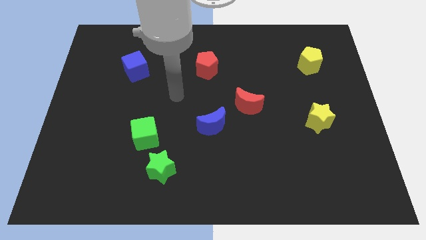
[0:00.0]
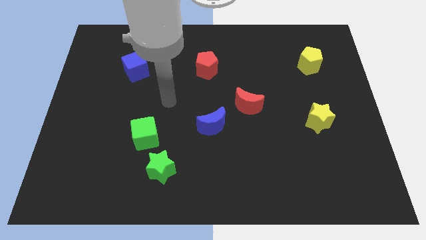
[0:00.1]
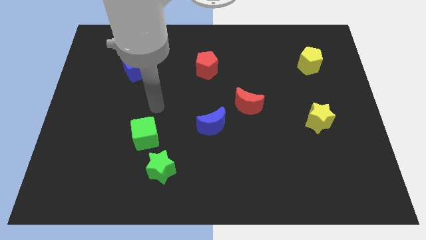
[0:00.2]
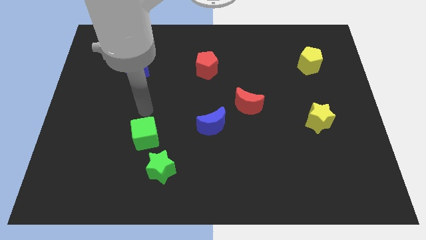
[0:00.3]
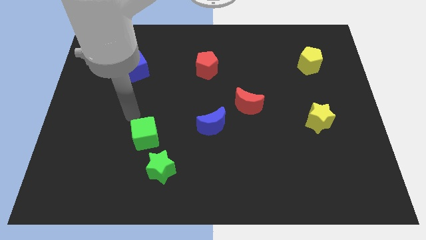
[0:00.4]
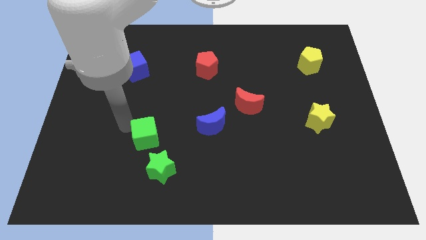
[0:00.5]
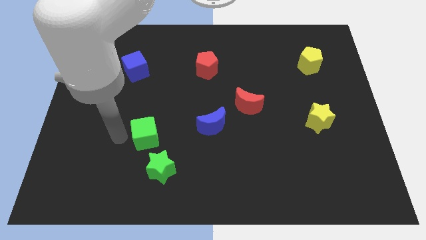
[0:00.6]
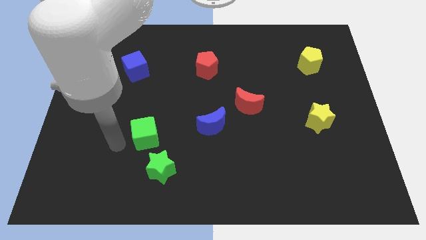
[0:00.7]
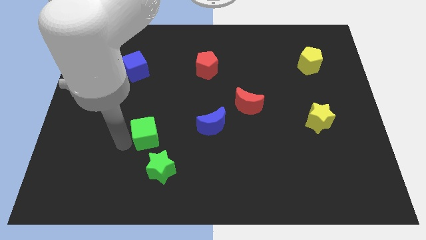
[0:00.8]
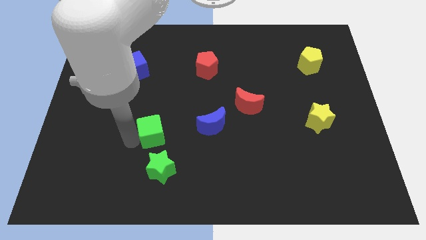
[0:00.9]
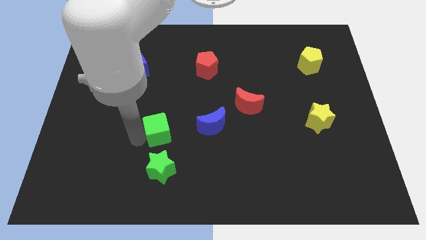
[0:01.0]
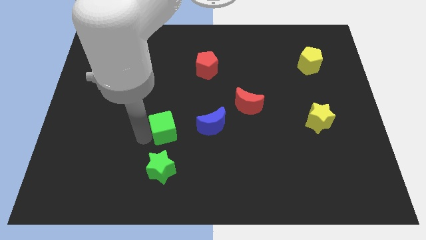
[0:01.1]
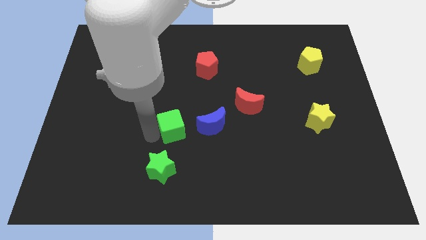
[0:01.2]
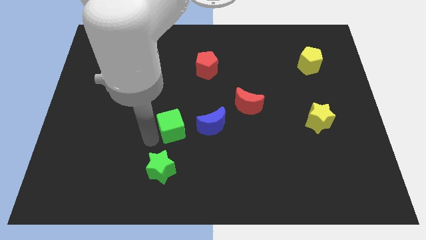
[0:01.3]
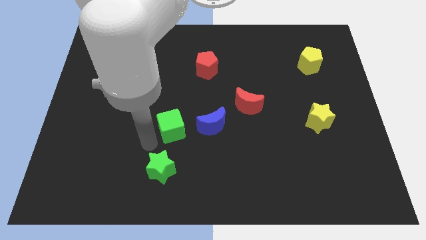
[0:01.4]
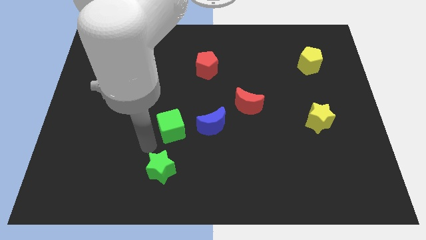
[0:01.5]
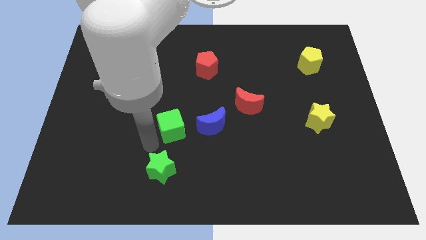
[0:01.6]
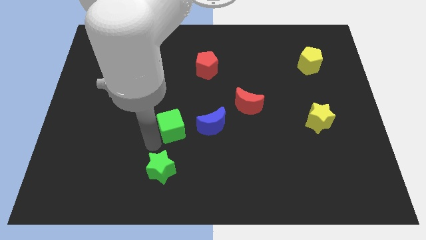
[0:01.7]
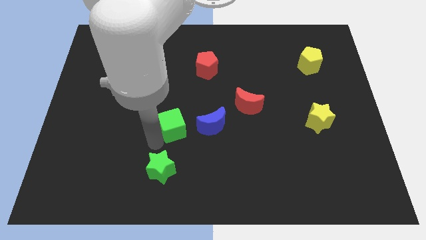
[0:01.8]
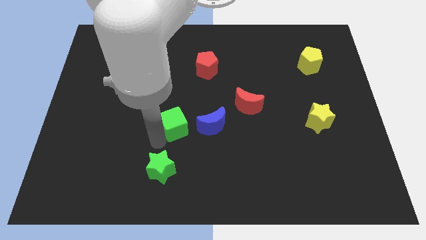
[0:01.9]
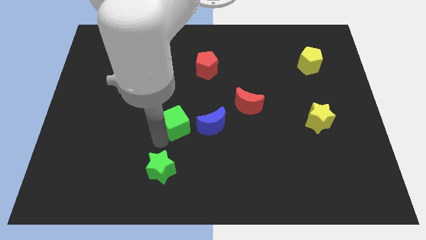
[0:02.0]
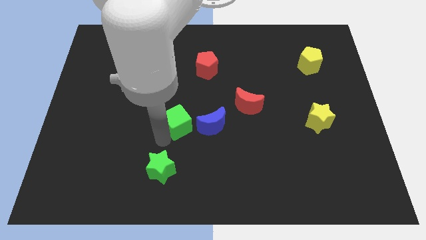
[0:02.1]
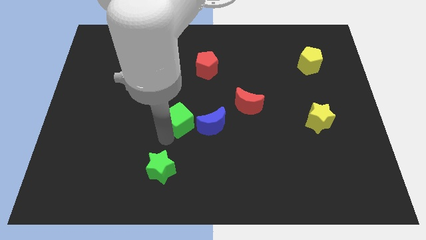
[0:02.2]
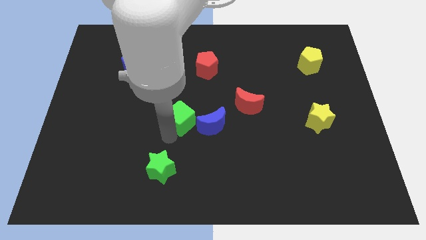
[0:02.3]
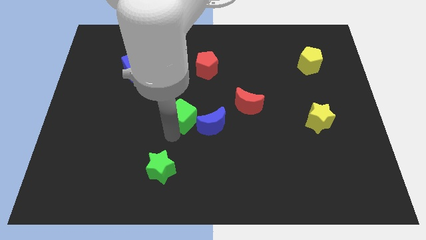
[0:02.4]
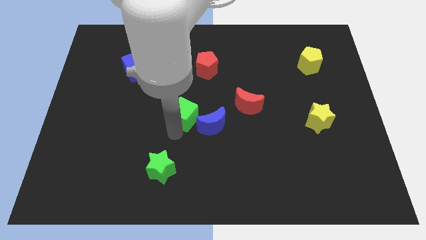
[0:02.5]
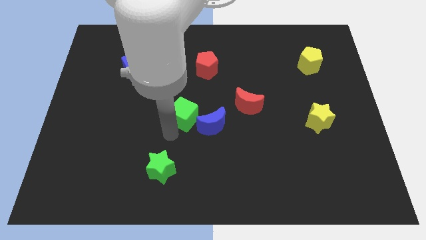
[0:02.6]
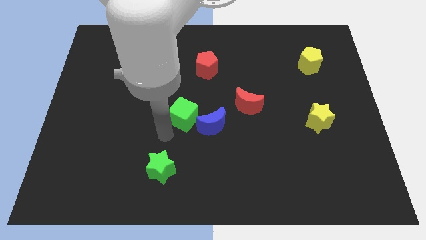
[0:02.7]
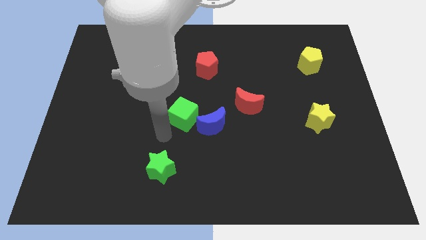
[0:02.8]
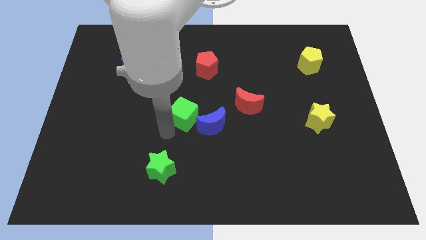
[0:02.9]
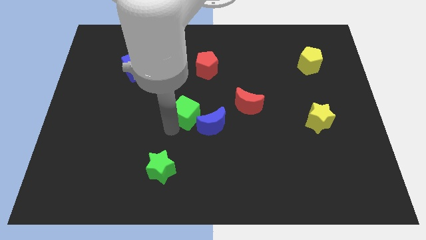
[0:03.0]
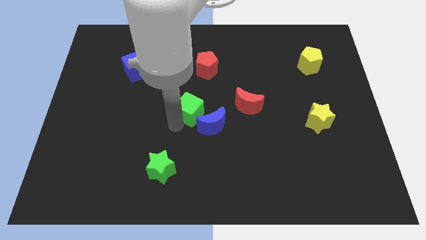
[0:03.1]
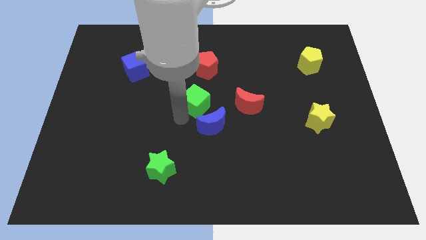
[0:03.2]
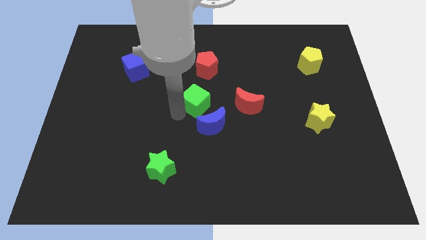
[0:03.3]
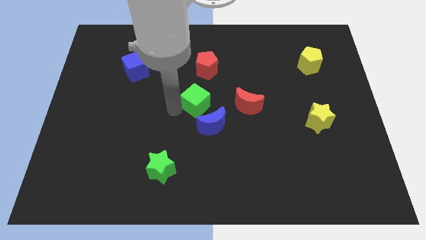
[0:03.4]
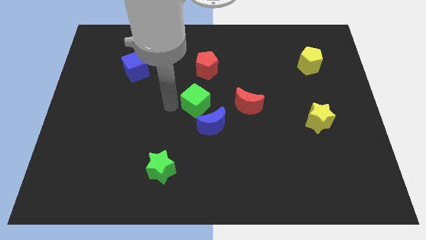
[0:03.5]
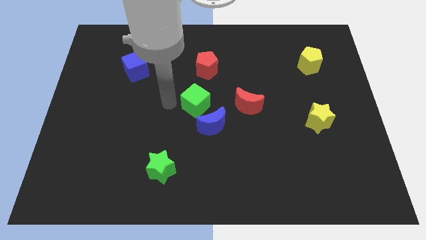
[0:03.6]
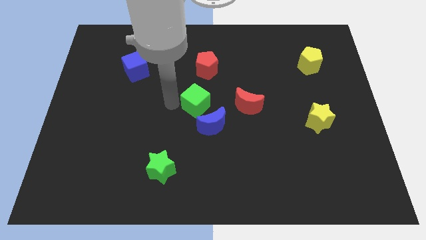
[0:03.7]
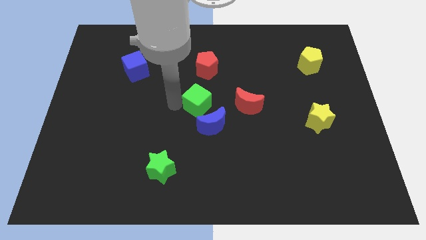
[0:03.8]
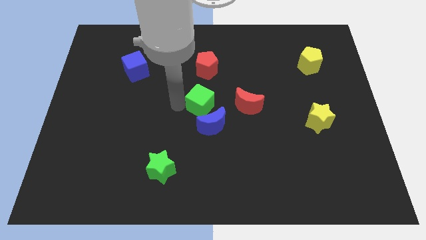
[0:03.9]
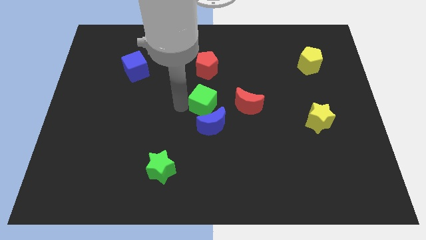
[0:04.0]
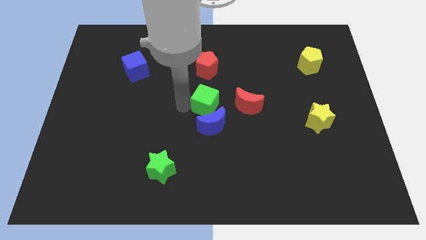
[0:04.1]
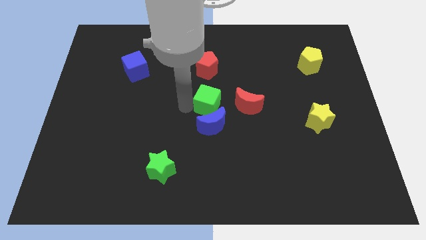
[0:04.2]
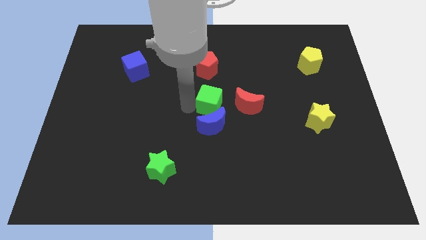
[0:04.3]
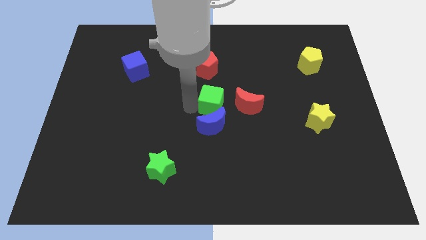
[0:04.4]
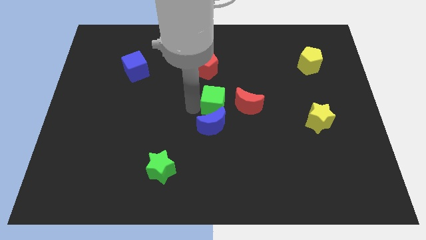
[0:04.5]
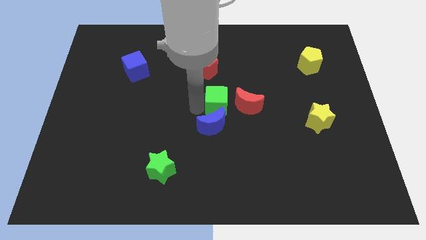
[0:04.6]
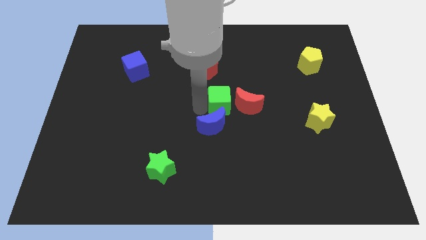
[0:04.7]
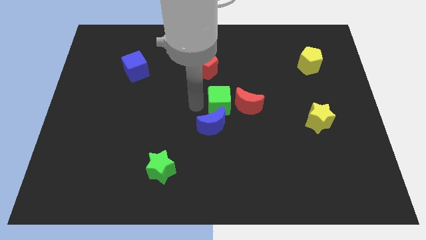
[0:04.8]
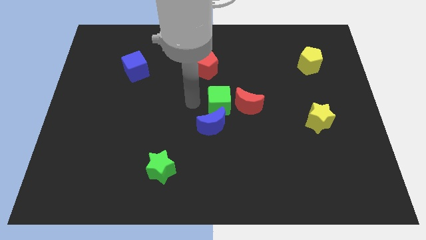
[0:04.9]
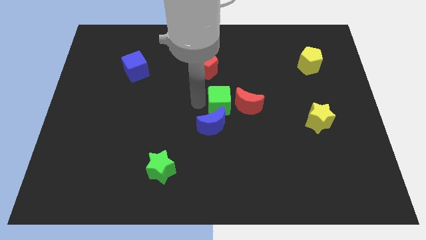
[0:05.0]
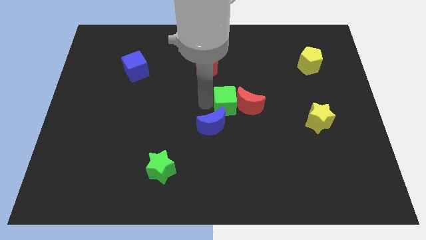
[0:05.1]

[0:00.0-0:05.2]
push the green cube next to the red moon

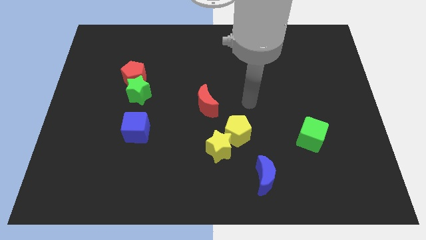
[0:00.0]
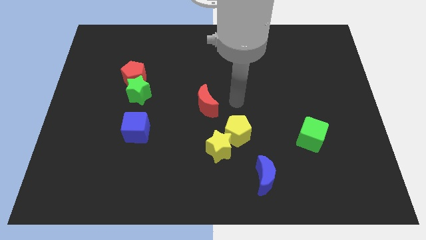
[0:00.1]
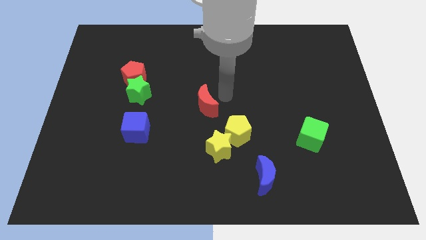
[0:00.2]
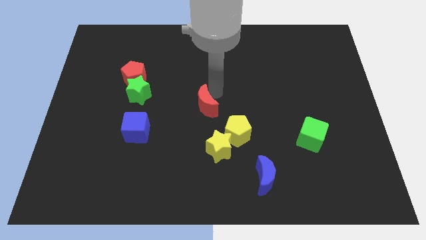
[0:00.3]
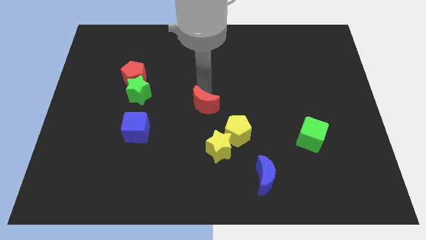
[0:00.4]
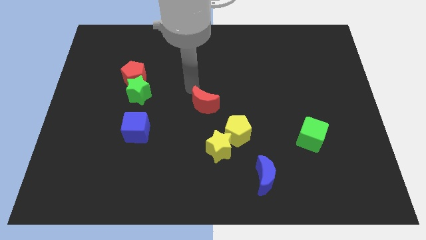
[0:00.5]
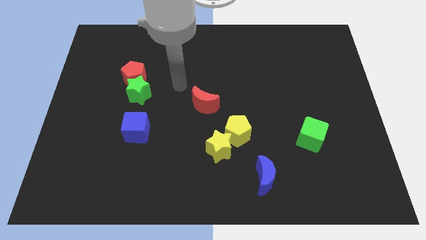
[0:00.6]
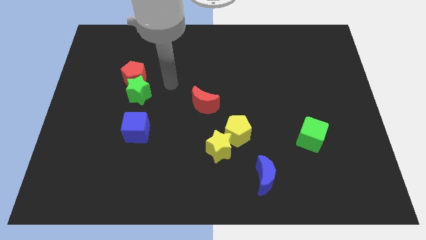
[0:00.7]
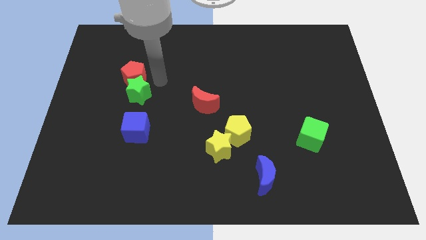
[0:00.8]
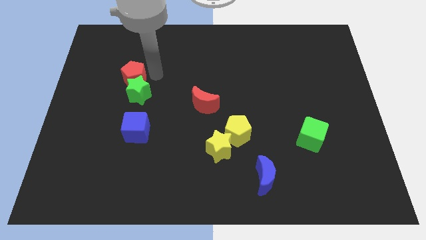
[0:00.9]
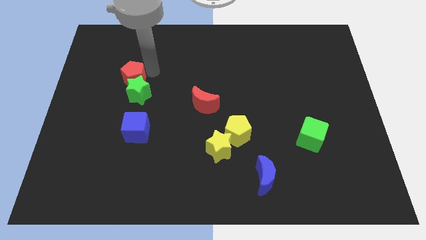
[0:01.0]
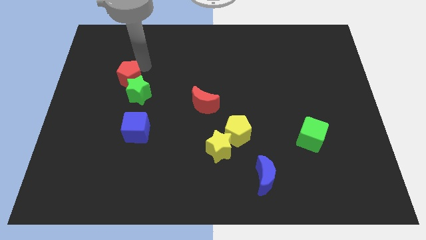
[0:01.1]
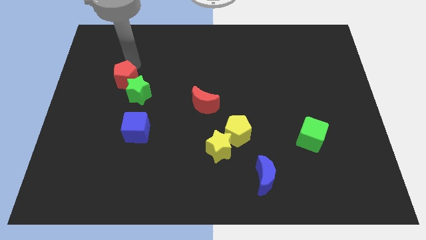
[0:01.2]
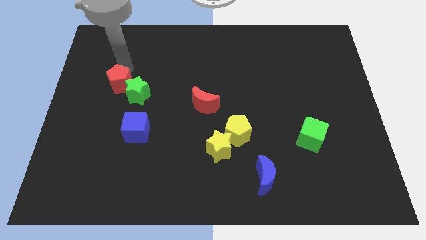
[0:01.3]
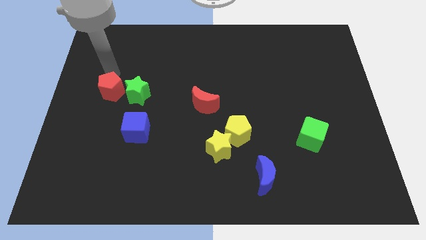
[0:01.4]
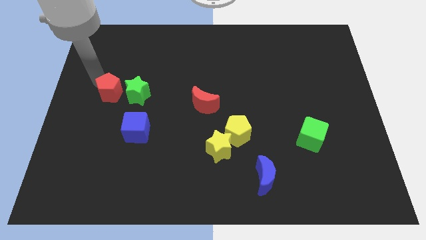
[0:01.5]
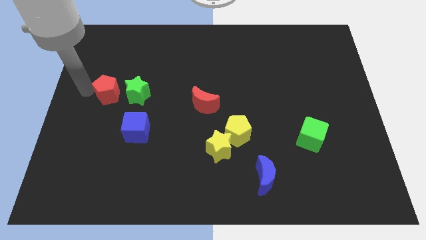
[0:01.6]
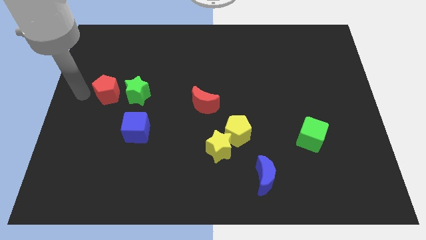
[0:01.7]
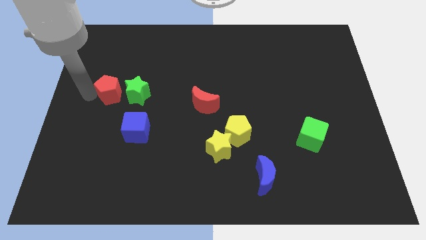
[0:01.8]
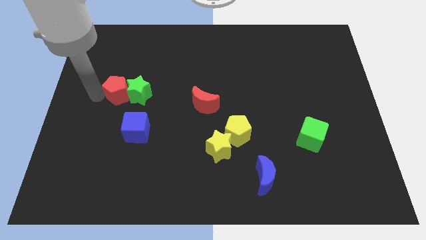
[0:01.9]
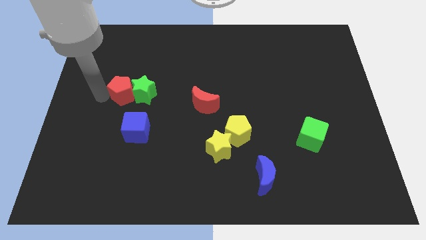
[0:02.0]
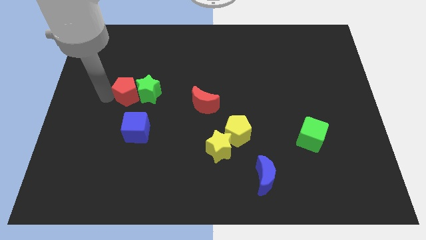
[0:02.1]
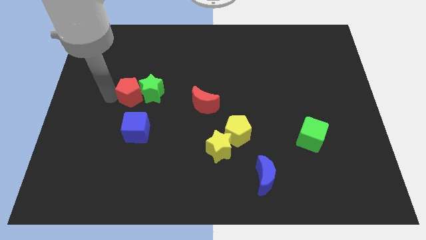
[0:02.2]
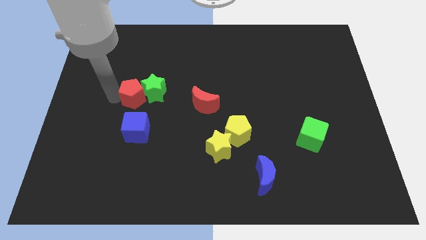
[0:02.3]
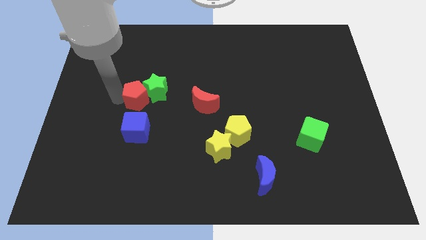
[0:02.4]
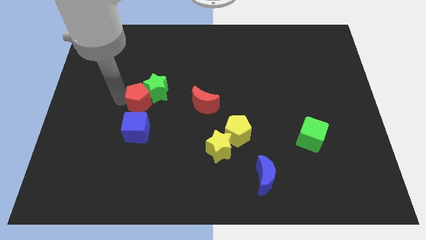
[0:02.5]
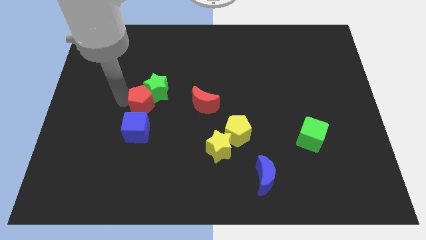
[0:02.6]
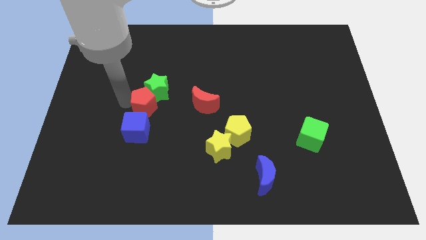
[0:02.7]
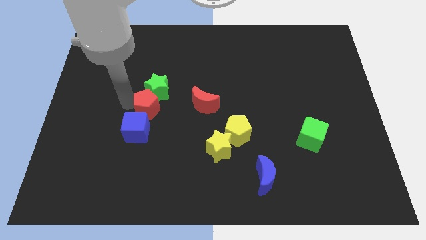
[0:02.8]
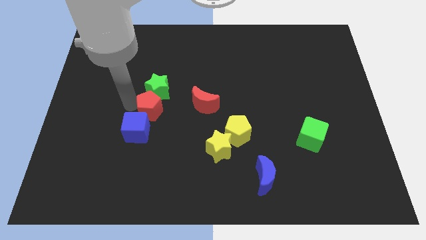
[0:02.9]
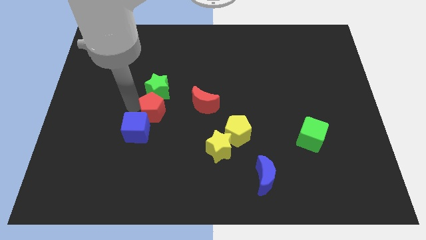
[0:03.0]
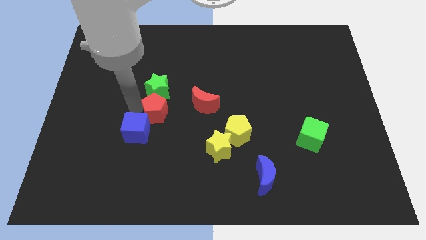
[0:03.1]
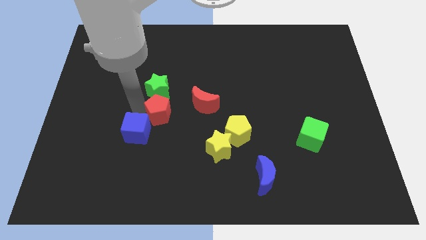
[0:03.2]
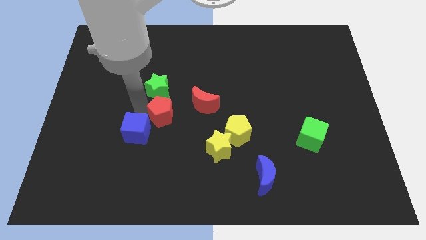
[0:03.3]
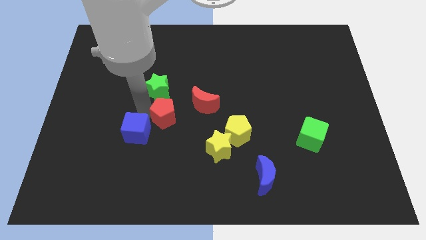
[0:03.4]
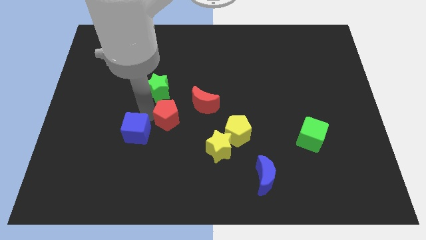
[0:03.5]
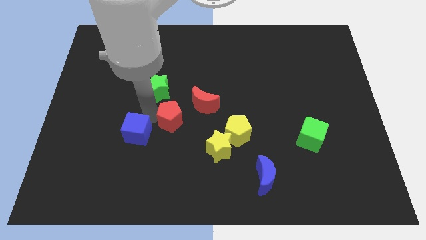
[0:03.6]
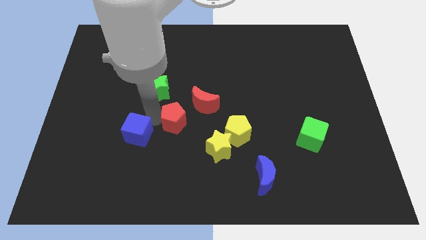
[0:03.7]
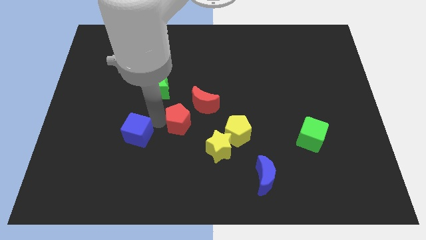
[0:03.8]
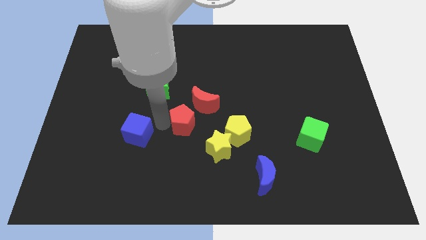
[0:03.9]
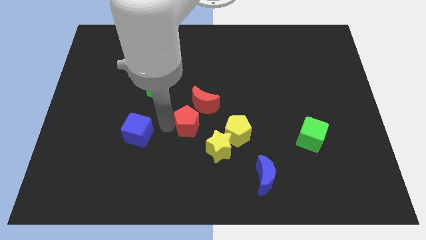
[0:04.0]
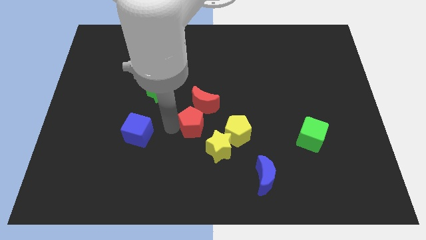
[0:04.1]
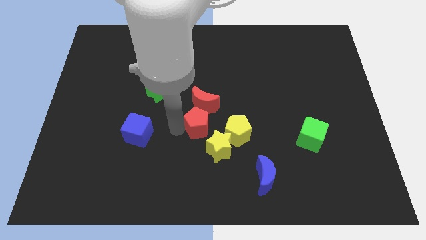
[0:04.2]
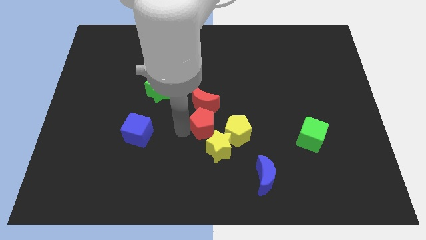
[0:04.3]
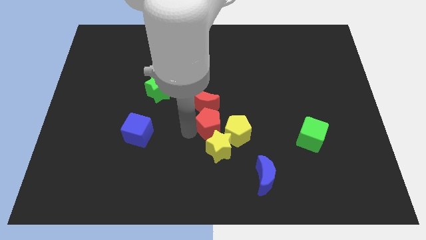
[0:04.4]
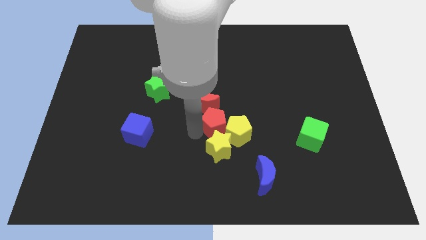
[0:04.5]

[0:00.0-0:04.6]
move the red pentagon to the yellow star
